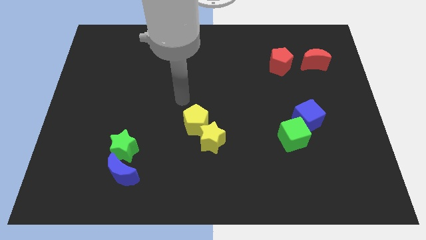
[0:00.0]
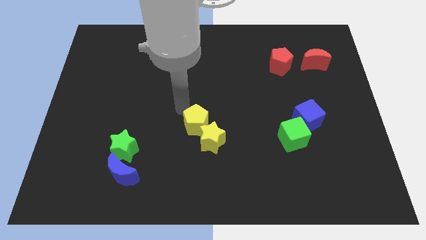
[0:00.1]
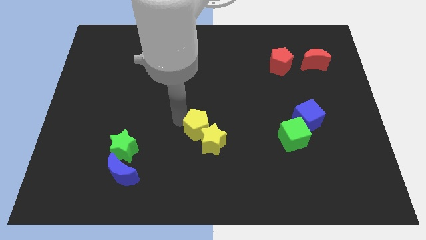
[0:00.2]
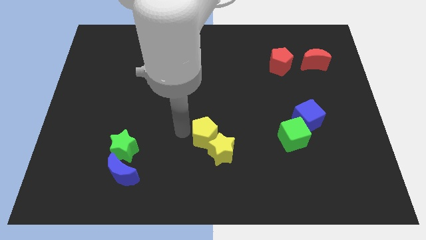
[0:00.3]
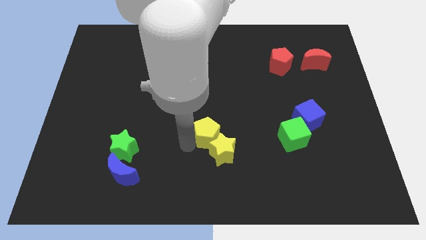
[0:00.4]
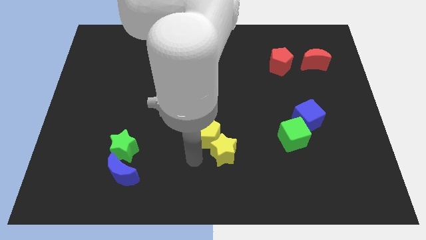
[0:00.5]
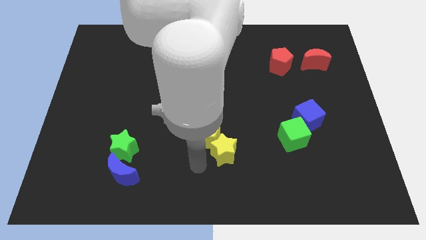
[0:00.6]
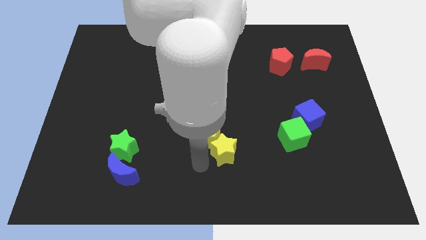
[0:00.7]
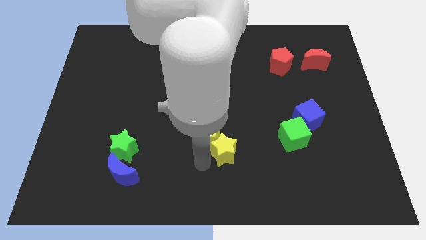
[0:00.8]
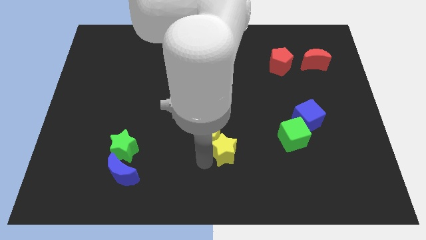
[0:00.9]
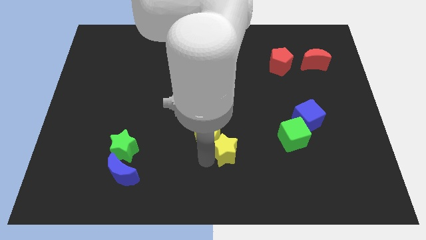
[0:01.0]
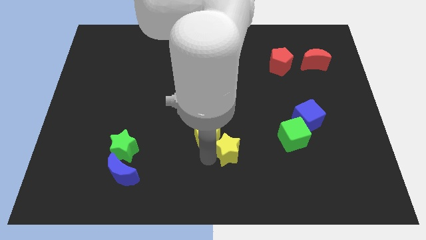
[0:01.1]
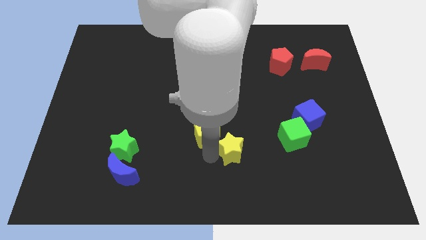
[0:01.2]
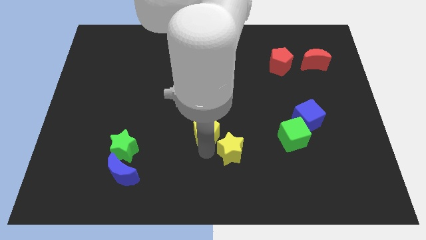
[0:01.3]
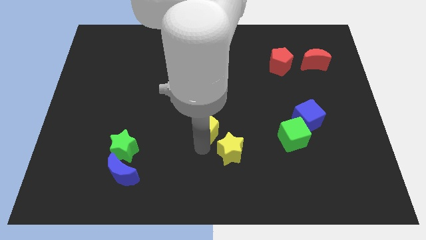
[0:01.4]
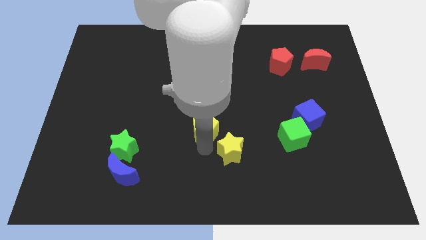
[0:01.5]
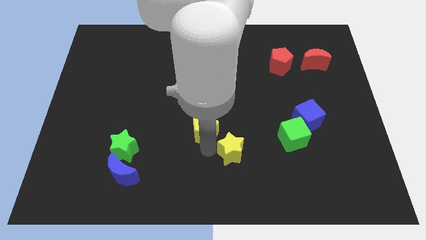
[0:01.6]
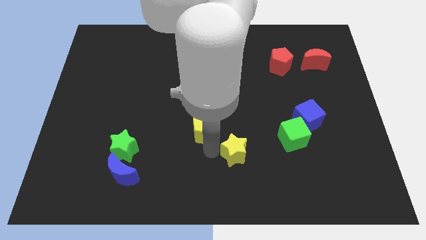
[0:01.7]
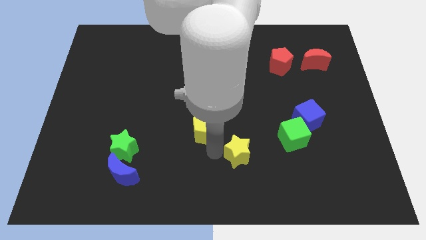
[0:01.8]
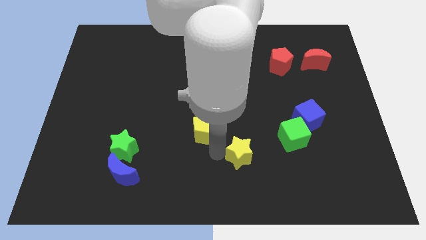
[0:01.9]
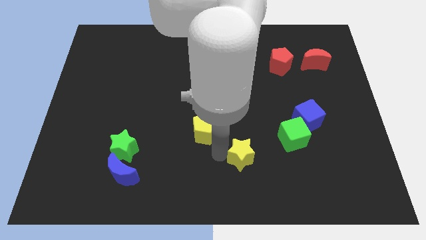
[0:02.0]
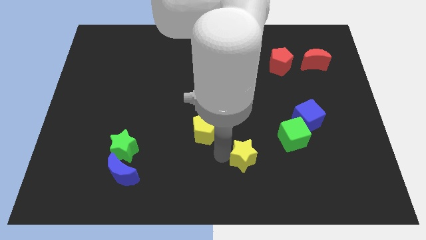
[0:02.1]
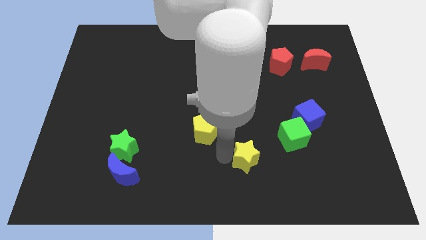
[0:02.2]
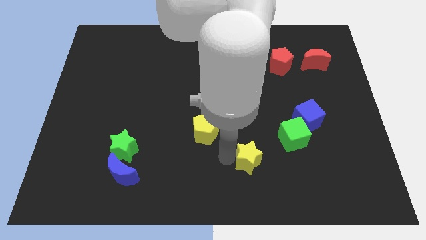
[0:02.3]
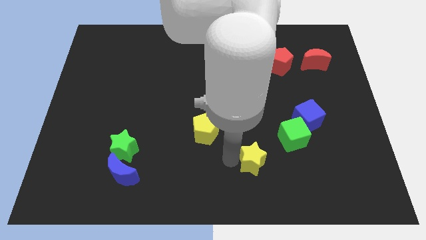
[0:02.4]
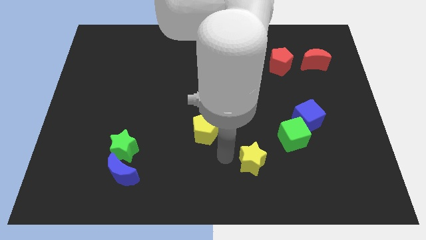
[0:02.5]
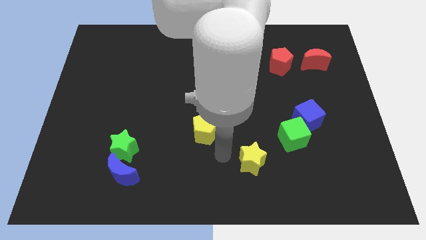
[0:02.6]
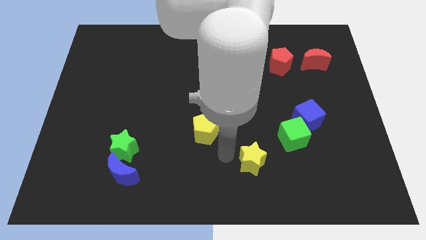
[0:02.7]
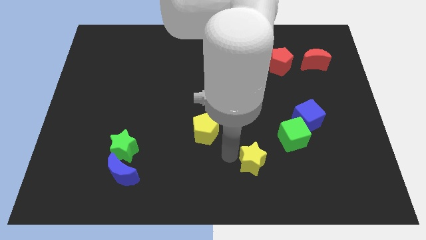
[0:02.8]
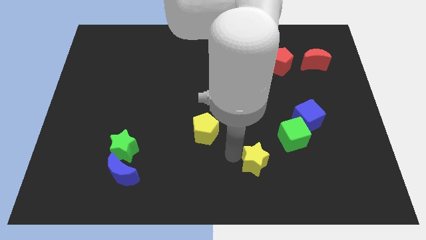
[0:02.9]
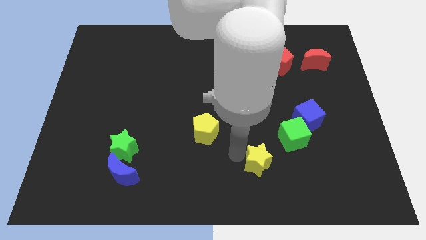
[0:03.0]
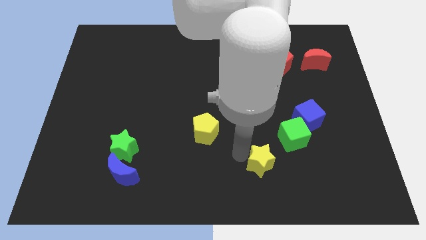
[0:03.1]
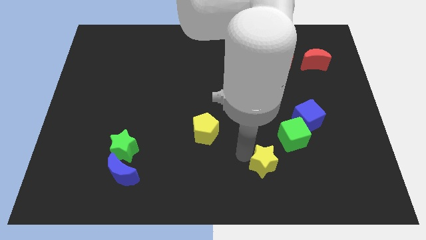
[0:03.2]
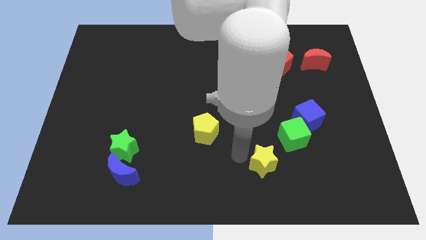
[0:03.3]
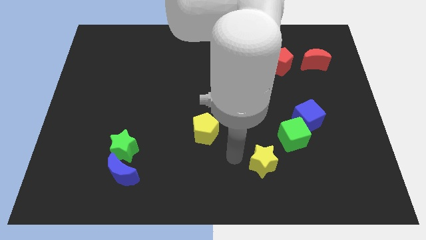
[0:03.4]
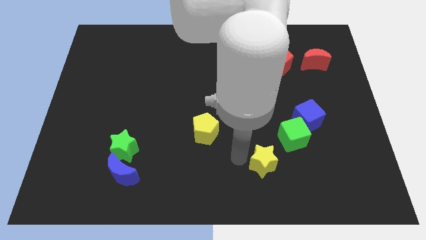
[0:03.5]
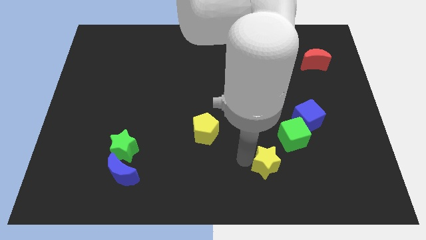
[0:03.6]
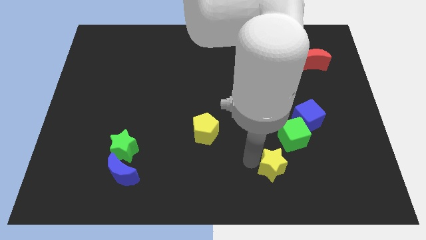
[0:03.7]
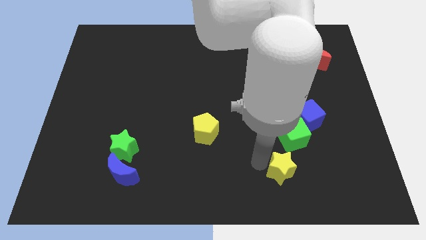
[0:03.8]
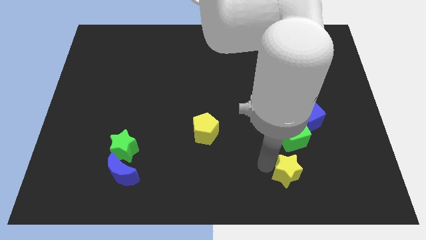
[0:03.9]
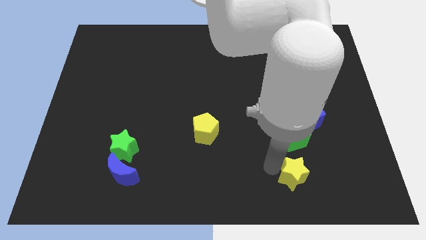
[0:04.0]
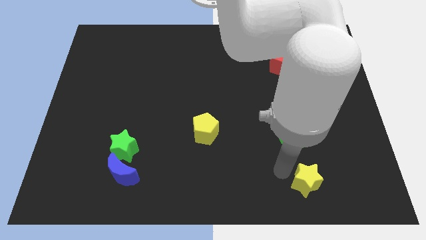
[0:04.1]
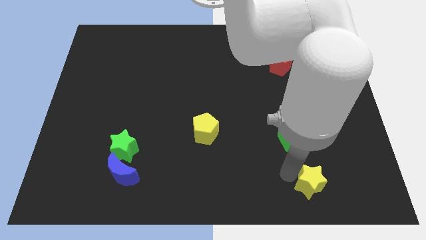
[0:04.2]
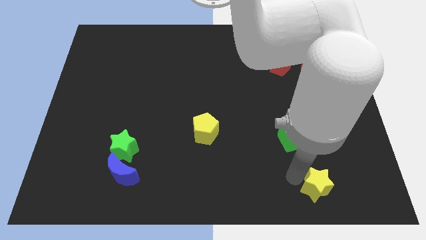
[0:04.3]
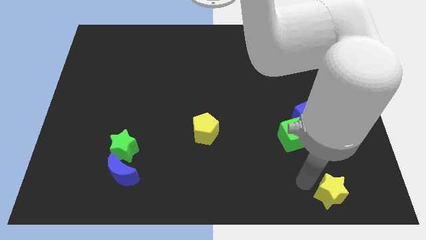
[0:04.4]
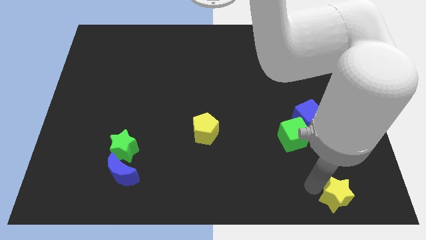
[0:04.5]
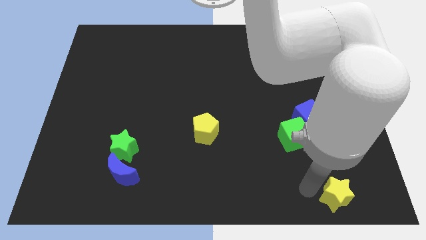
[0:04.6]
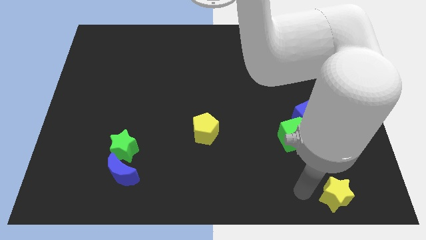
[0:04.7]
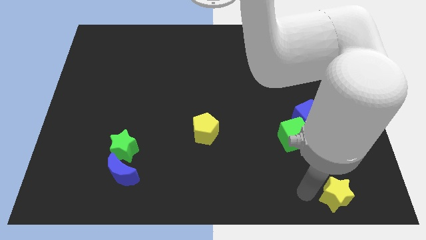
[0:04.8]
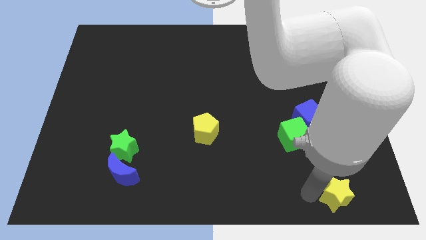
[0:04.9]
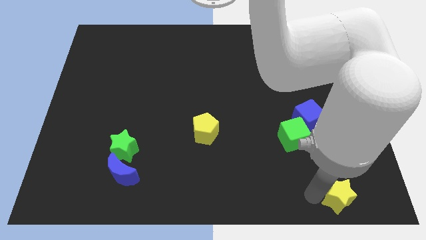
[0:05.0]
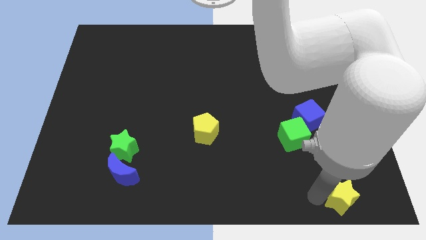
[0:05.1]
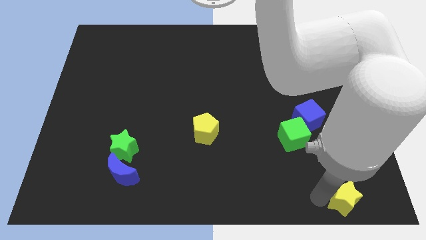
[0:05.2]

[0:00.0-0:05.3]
move the yellow star to the bottom right

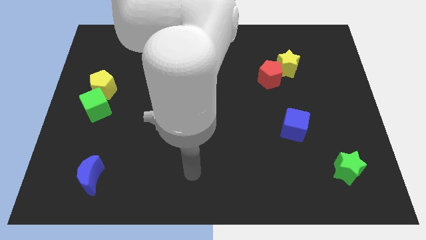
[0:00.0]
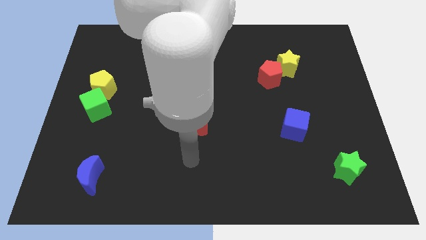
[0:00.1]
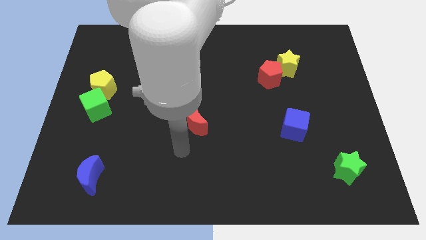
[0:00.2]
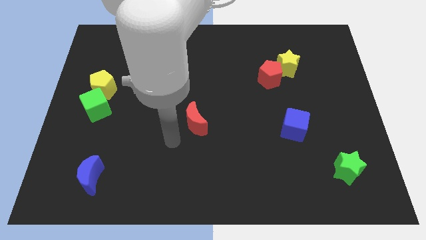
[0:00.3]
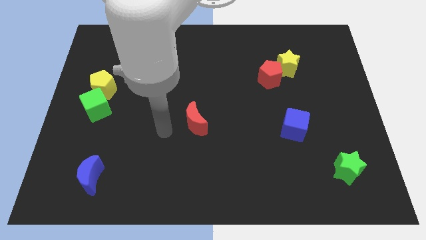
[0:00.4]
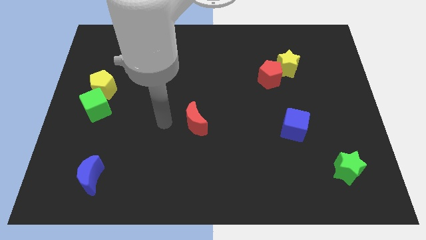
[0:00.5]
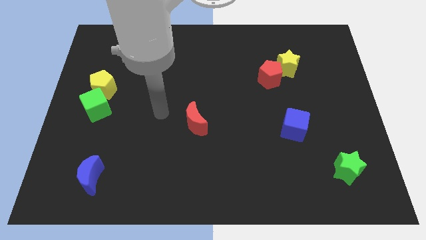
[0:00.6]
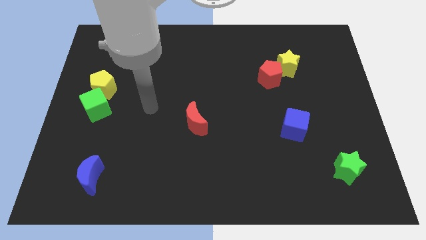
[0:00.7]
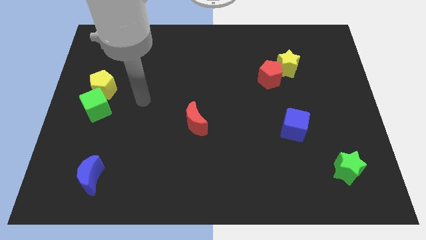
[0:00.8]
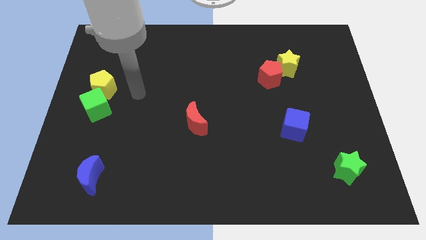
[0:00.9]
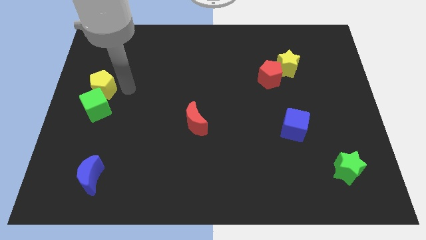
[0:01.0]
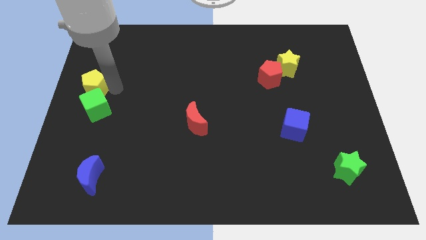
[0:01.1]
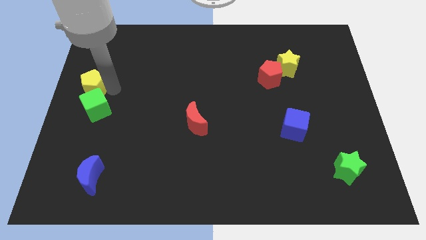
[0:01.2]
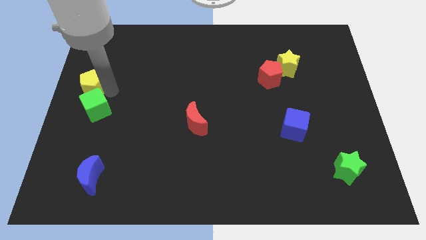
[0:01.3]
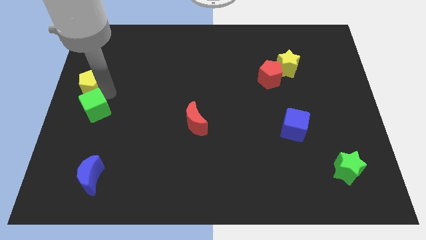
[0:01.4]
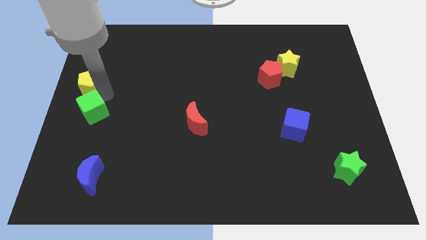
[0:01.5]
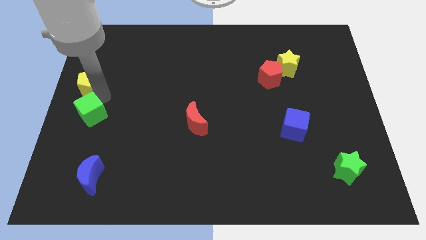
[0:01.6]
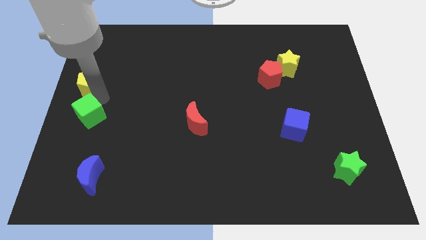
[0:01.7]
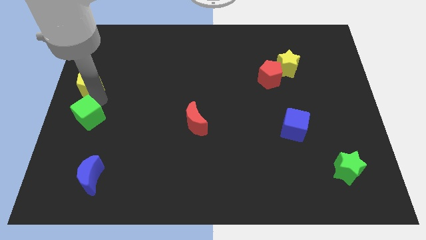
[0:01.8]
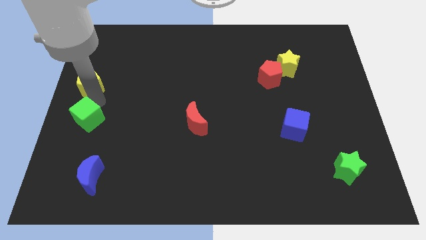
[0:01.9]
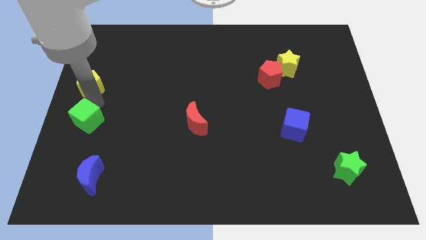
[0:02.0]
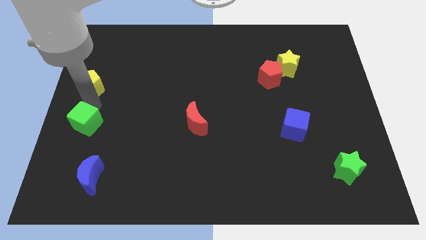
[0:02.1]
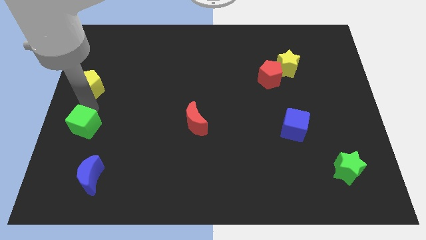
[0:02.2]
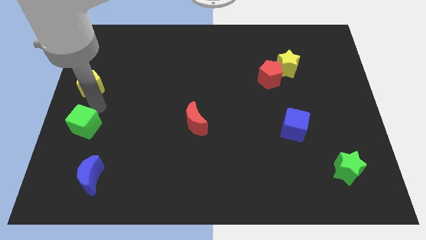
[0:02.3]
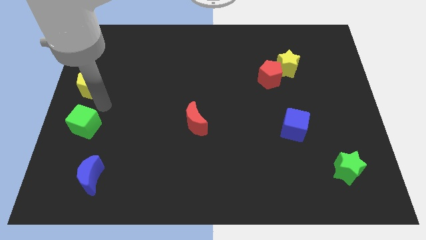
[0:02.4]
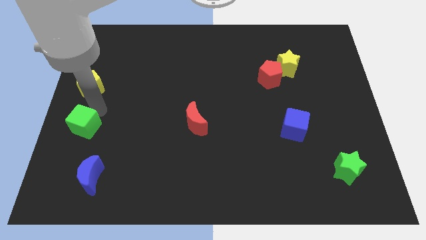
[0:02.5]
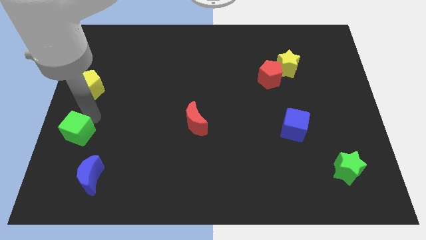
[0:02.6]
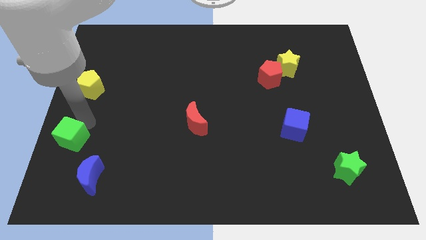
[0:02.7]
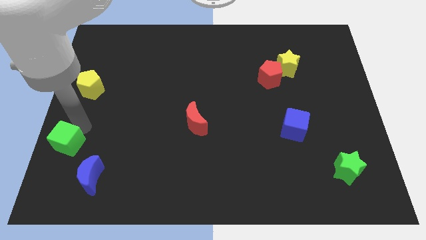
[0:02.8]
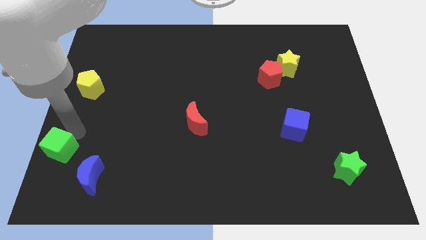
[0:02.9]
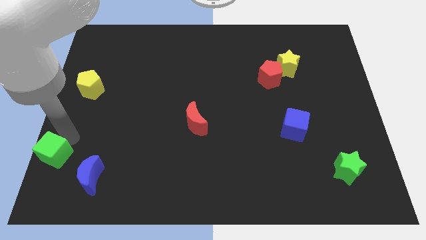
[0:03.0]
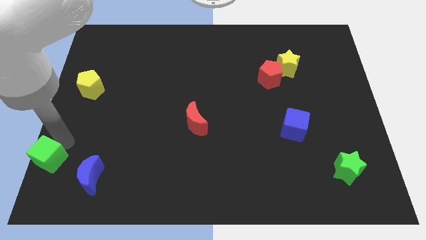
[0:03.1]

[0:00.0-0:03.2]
move the green cube to the lower left corner
